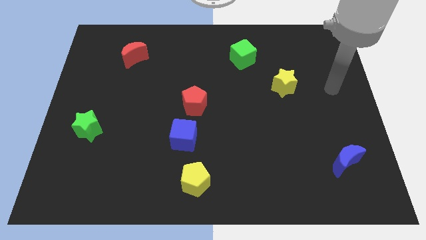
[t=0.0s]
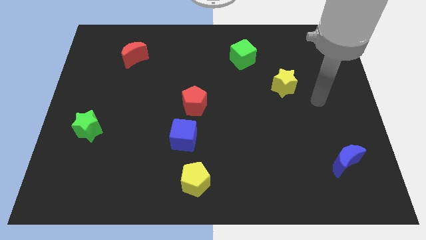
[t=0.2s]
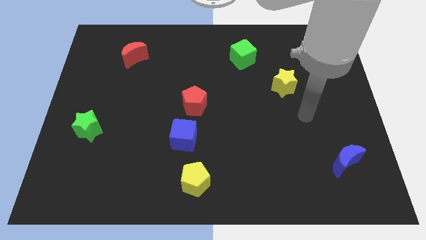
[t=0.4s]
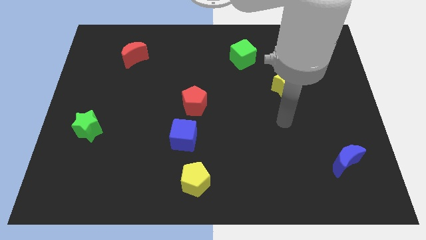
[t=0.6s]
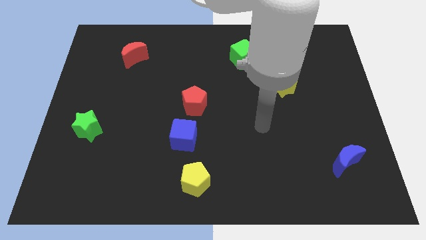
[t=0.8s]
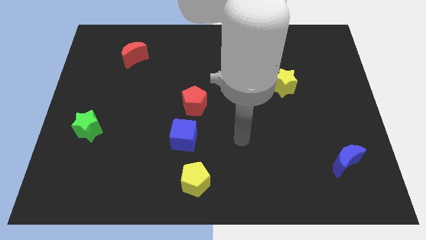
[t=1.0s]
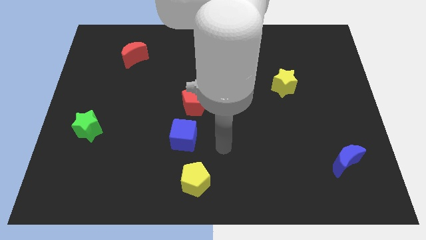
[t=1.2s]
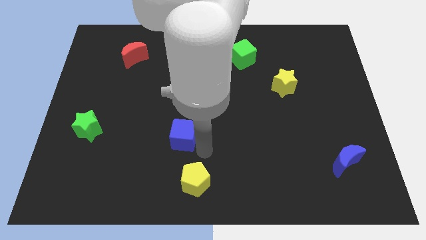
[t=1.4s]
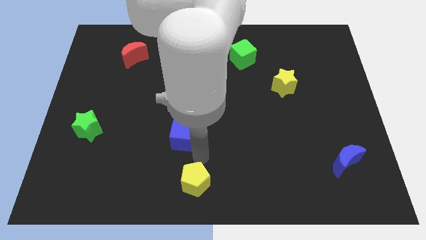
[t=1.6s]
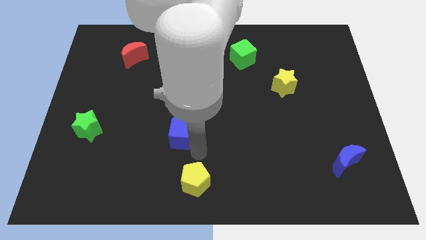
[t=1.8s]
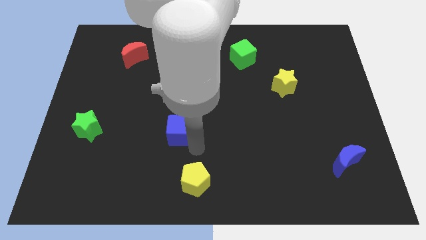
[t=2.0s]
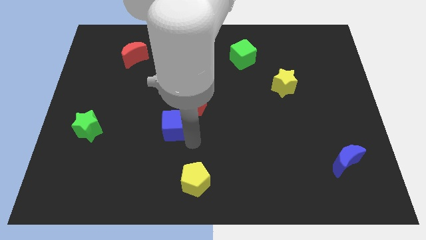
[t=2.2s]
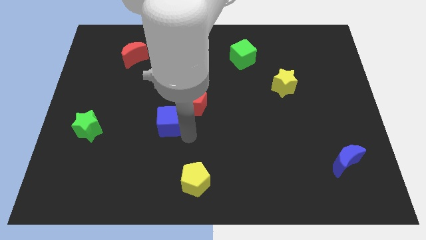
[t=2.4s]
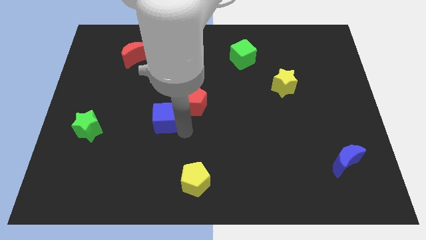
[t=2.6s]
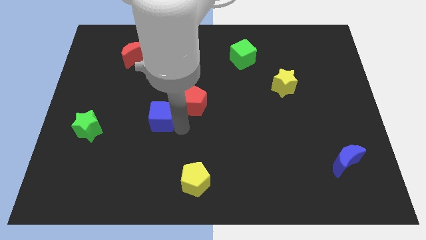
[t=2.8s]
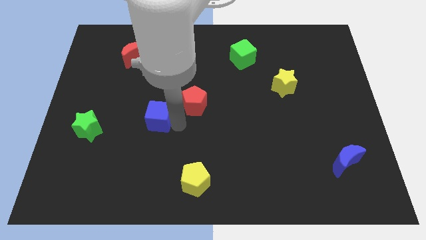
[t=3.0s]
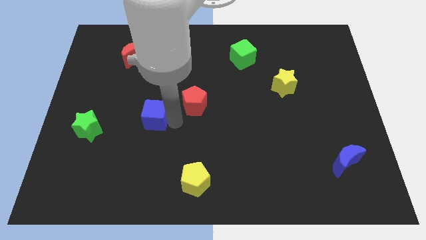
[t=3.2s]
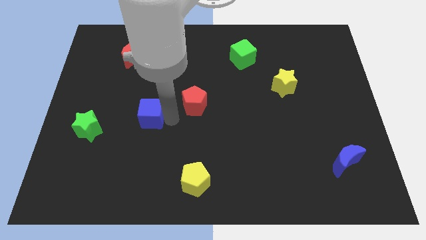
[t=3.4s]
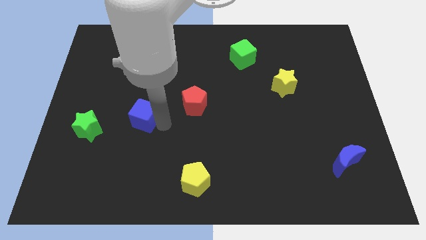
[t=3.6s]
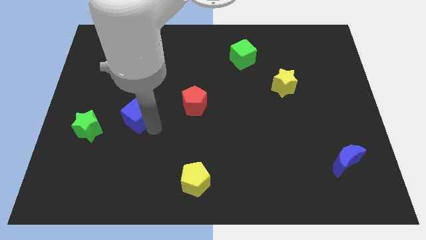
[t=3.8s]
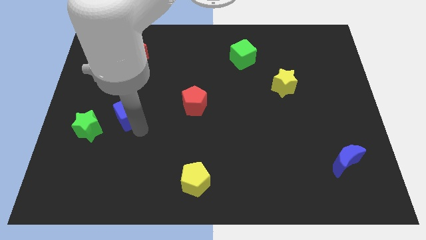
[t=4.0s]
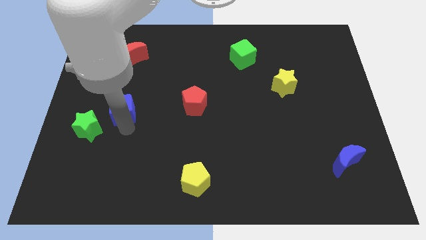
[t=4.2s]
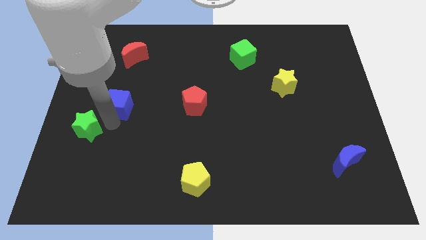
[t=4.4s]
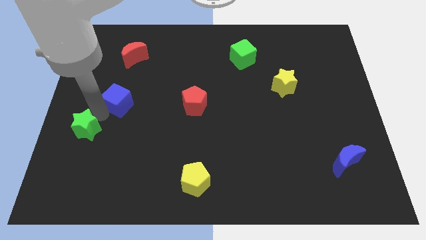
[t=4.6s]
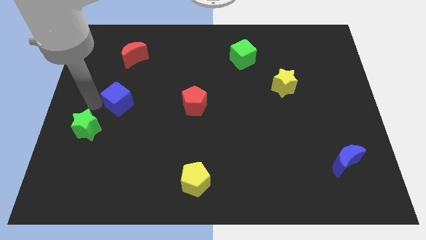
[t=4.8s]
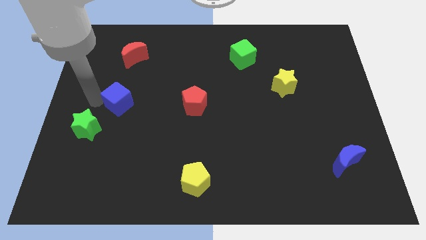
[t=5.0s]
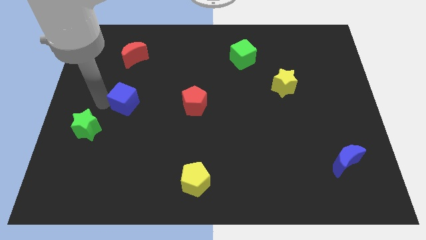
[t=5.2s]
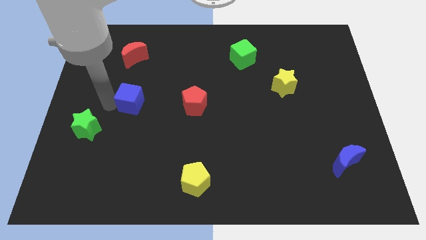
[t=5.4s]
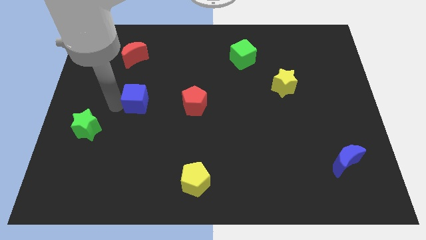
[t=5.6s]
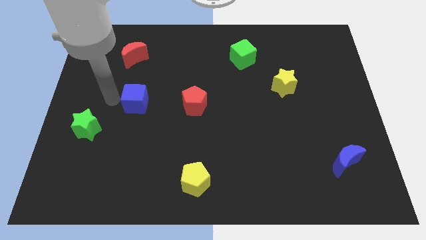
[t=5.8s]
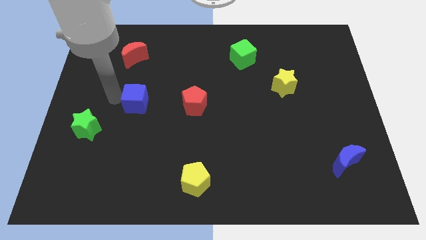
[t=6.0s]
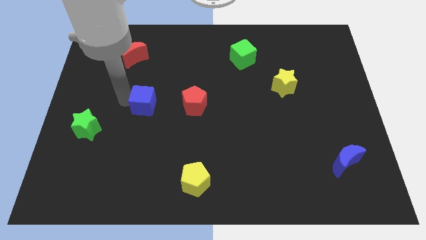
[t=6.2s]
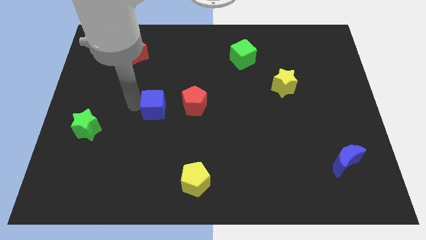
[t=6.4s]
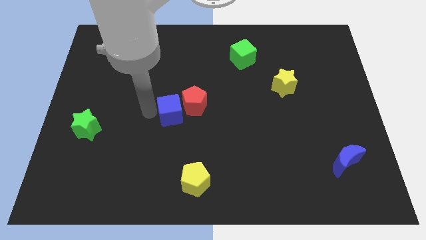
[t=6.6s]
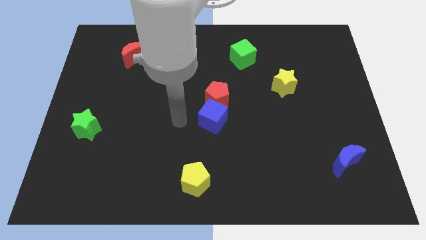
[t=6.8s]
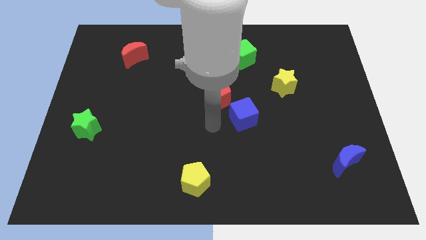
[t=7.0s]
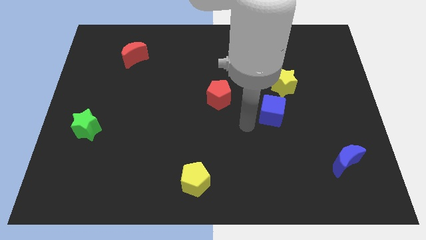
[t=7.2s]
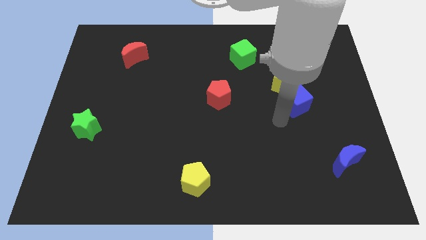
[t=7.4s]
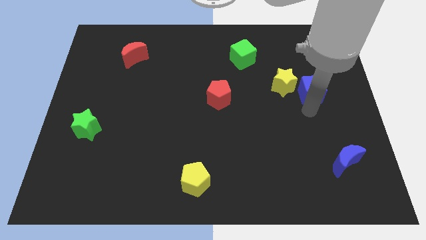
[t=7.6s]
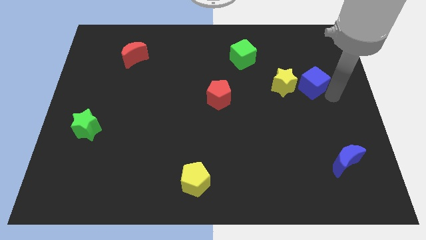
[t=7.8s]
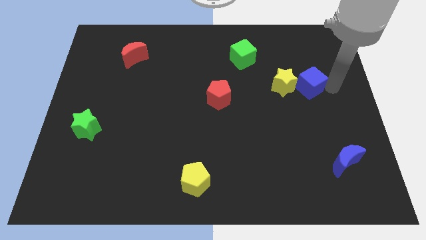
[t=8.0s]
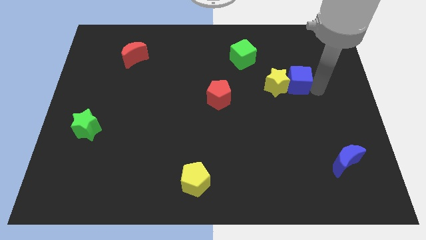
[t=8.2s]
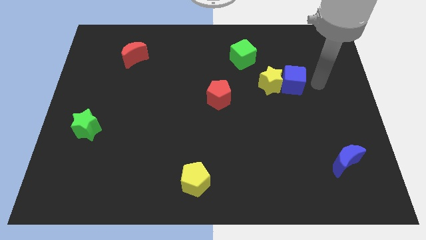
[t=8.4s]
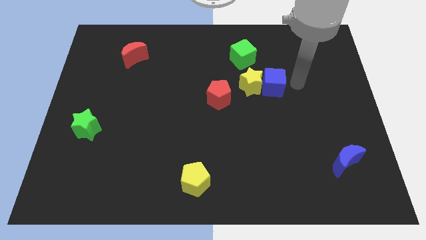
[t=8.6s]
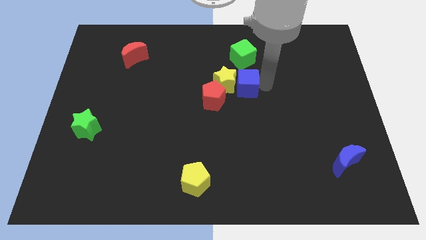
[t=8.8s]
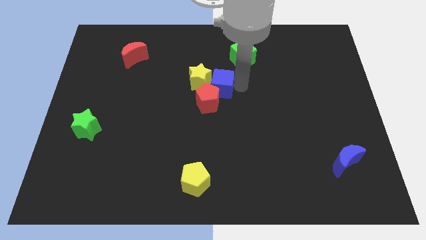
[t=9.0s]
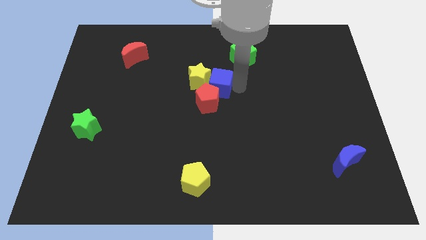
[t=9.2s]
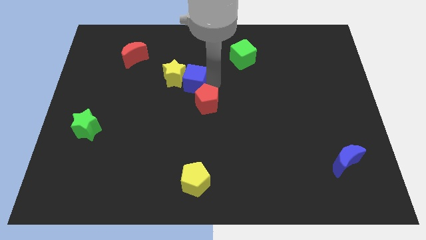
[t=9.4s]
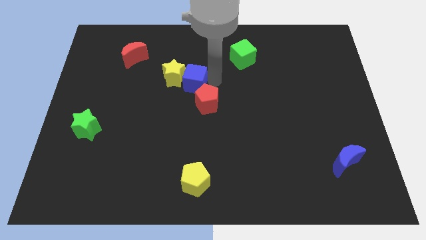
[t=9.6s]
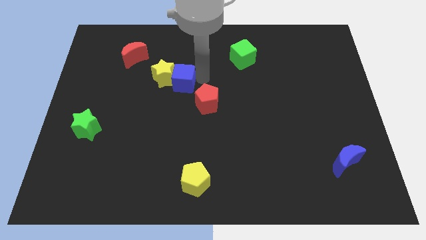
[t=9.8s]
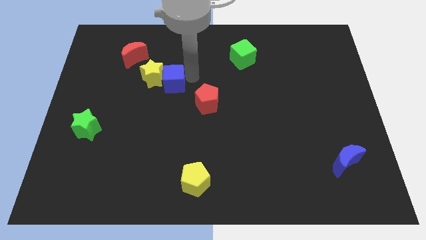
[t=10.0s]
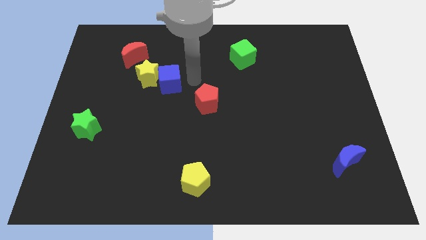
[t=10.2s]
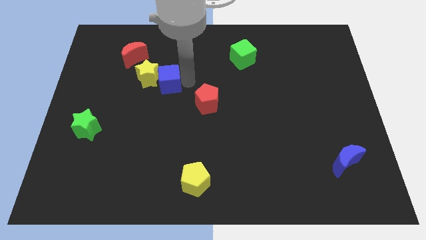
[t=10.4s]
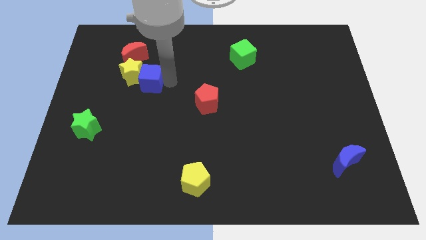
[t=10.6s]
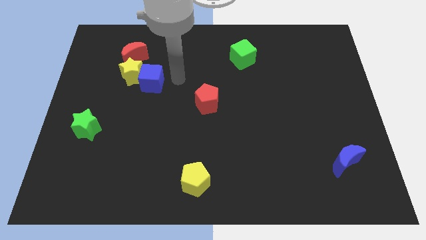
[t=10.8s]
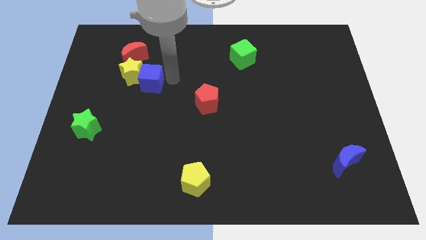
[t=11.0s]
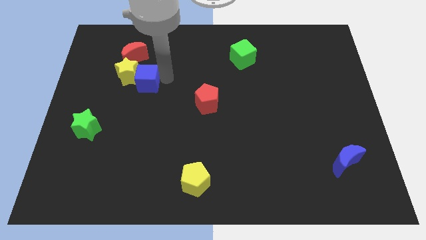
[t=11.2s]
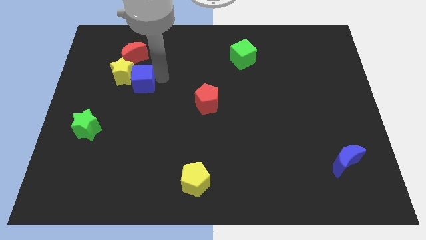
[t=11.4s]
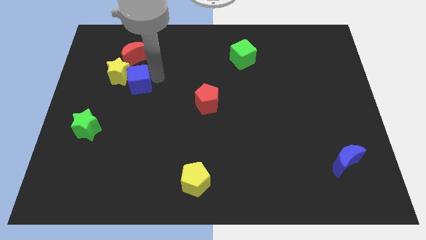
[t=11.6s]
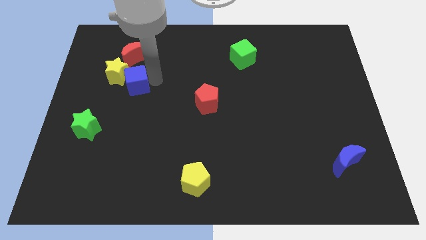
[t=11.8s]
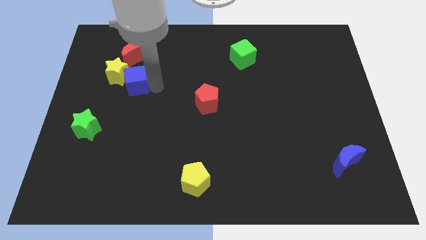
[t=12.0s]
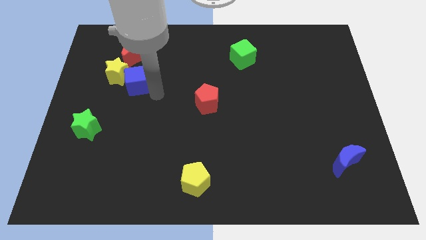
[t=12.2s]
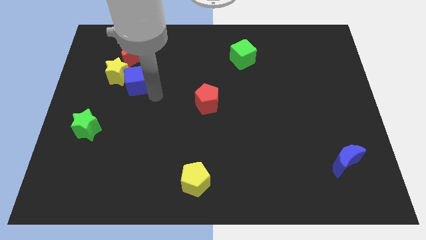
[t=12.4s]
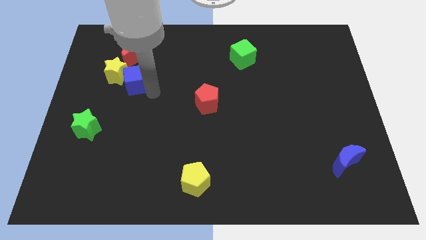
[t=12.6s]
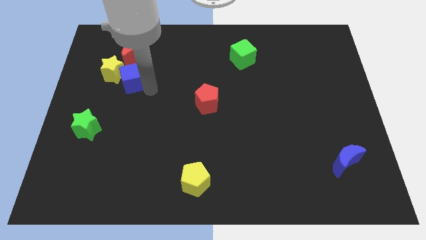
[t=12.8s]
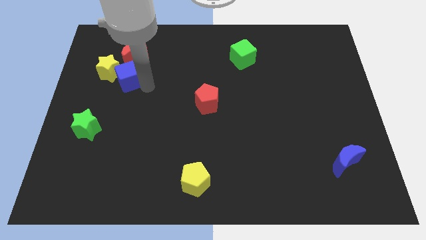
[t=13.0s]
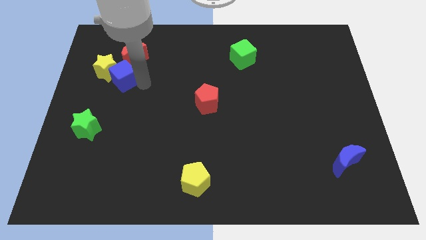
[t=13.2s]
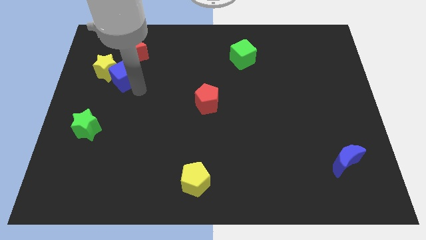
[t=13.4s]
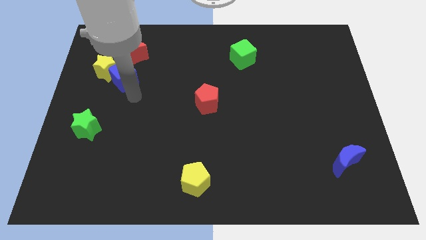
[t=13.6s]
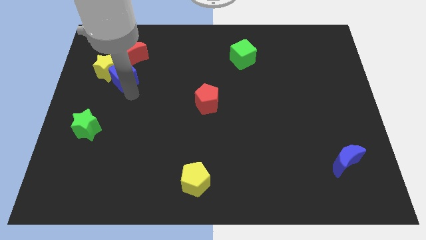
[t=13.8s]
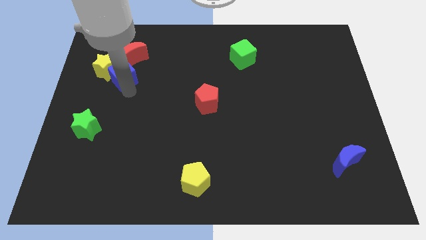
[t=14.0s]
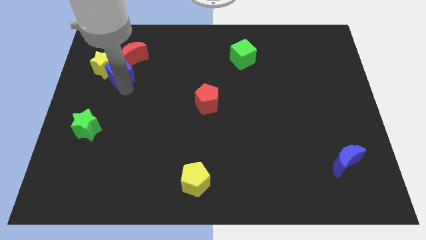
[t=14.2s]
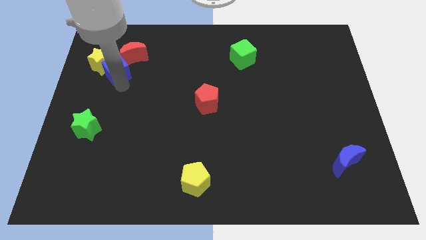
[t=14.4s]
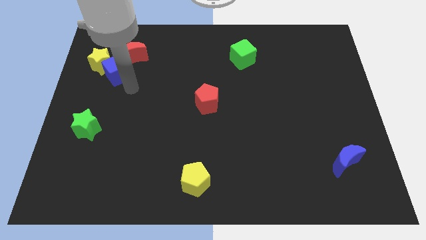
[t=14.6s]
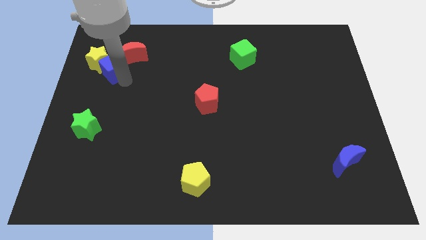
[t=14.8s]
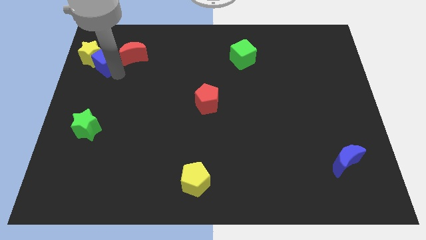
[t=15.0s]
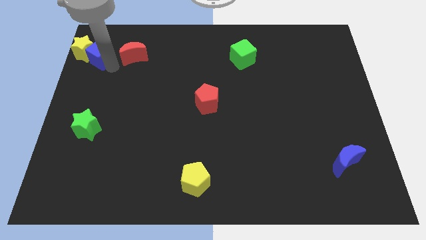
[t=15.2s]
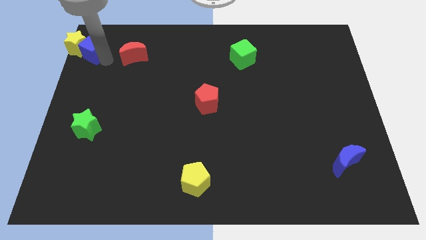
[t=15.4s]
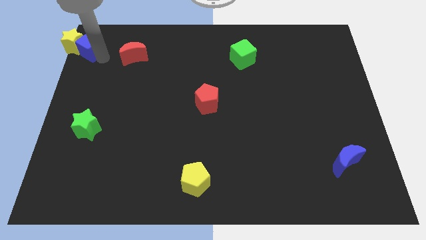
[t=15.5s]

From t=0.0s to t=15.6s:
put the blue cube to the top left of the board
